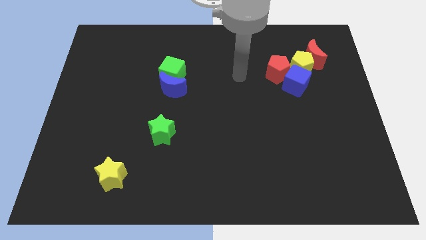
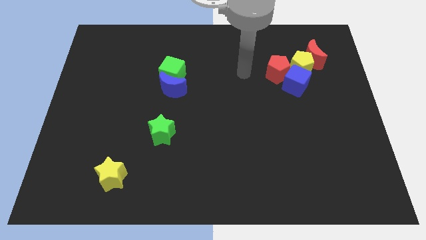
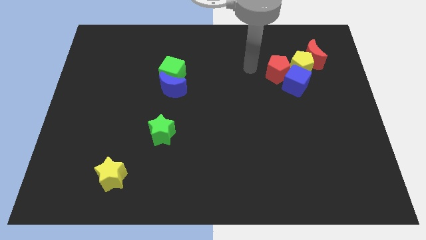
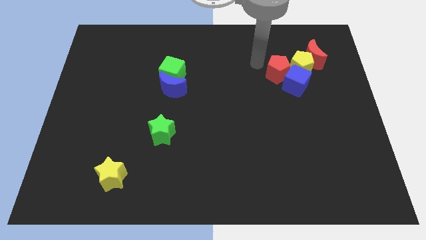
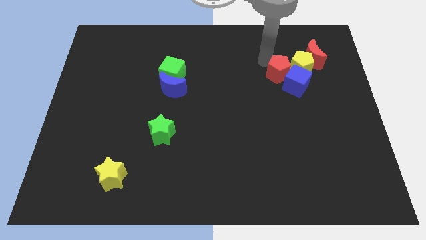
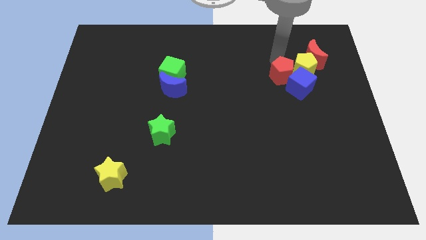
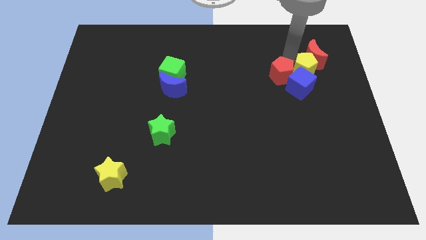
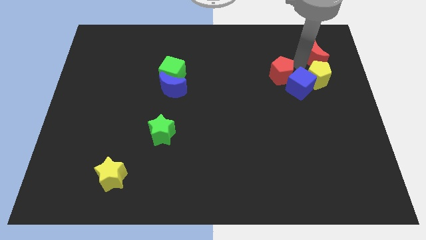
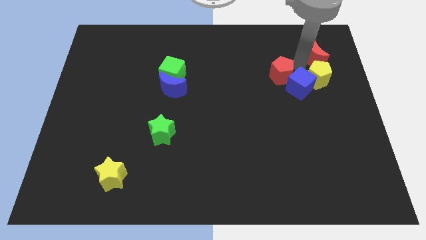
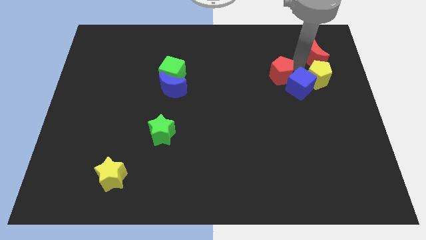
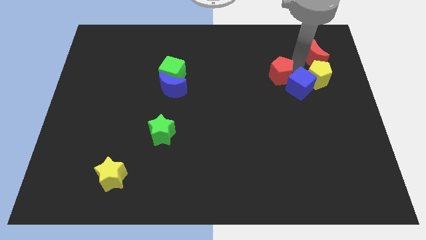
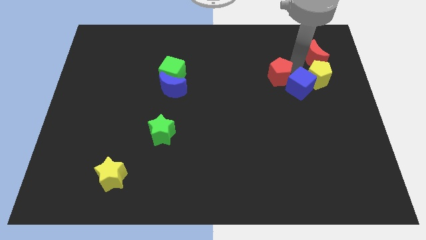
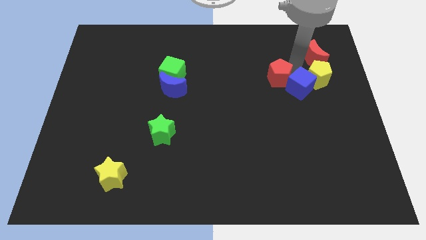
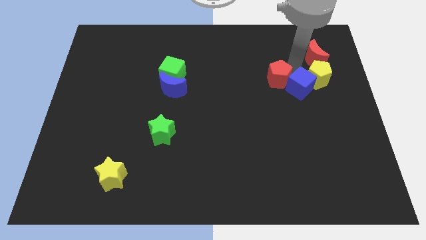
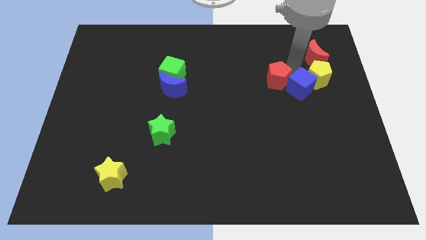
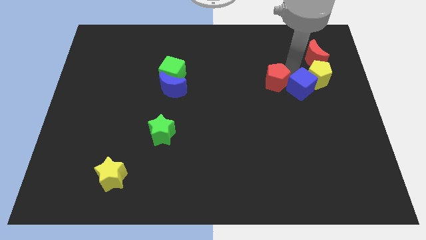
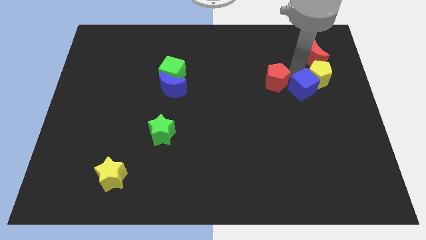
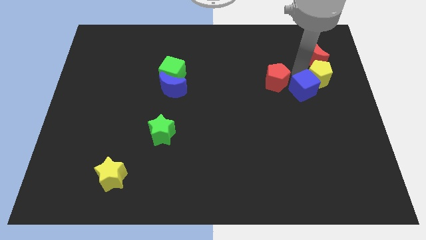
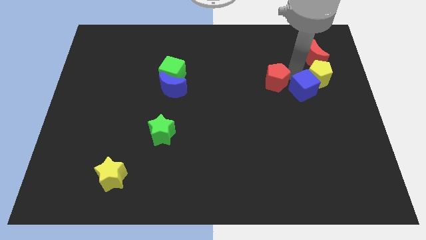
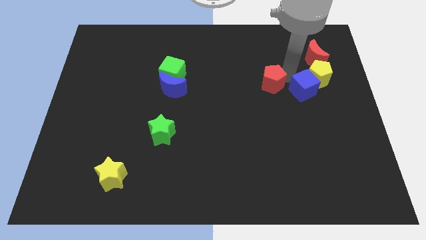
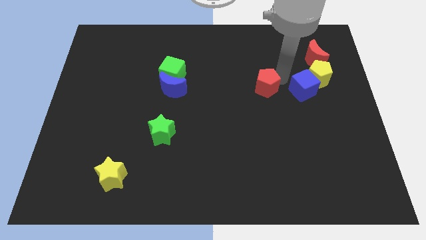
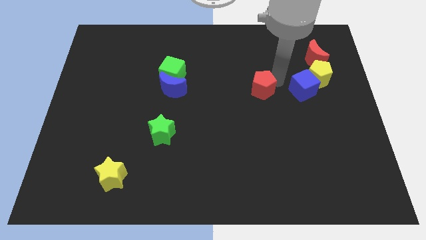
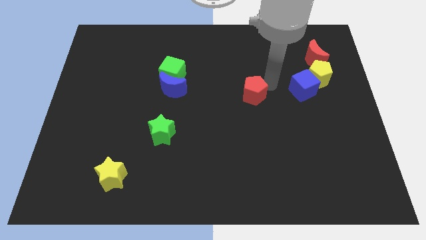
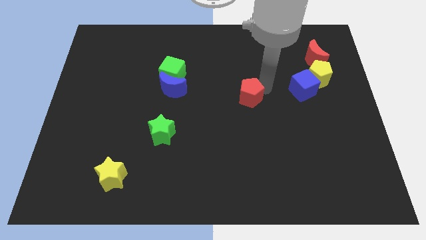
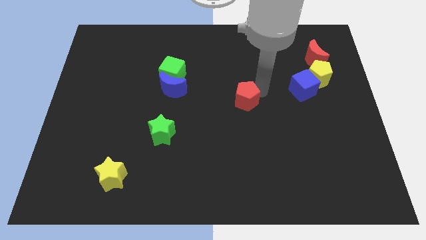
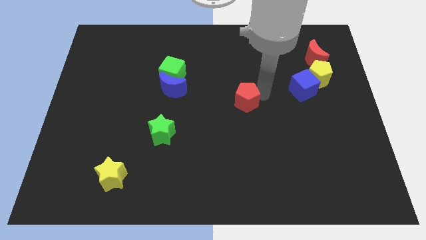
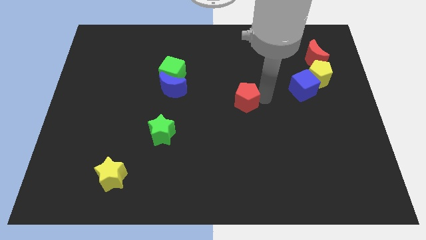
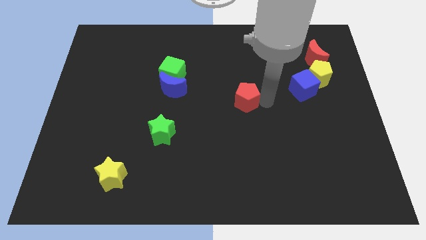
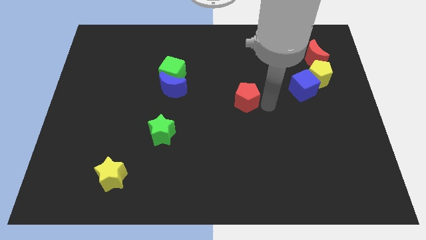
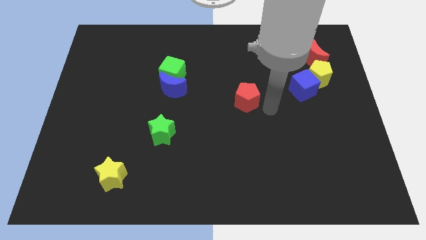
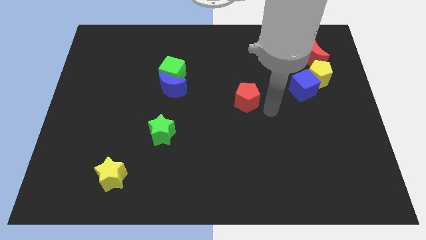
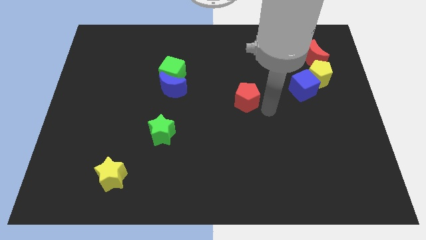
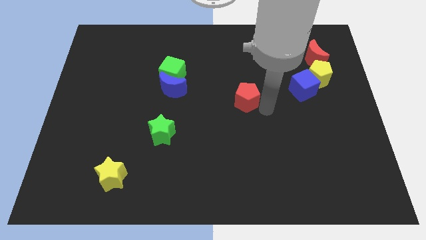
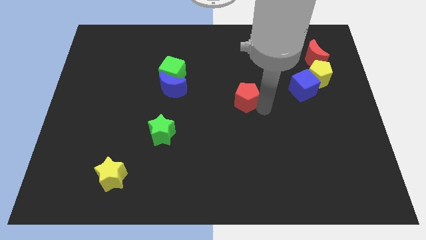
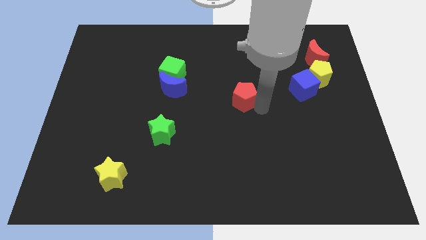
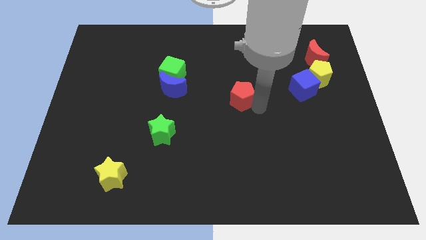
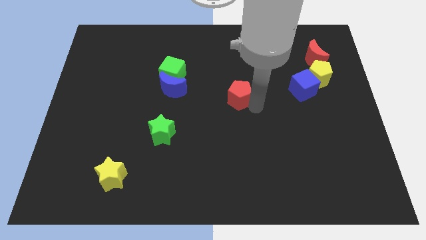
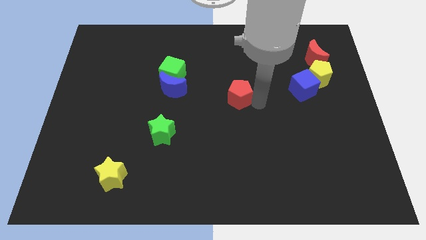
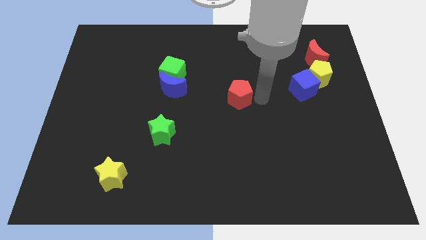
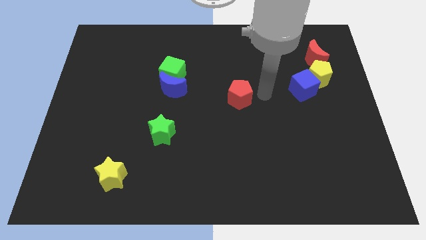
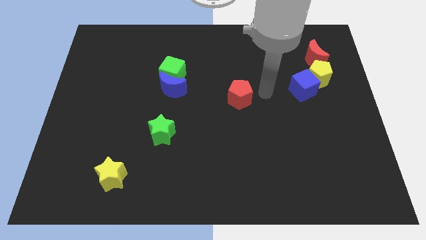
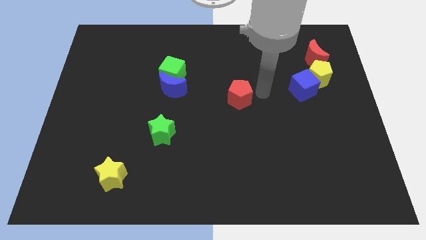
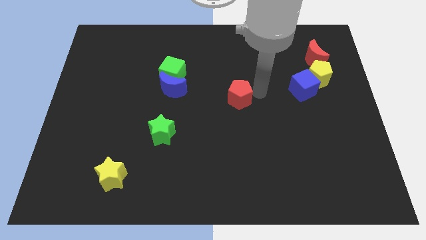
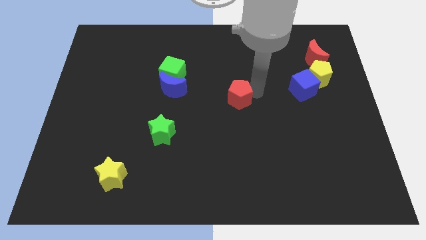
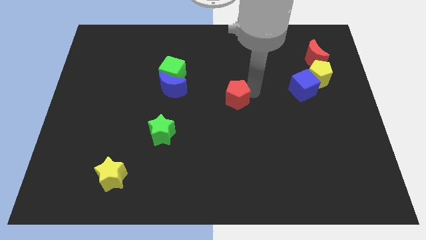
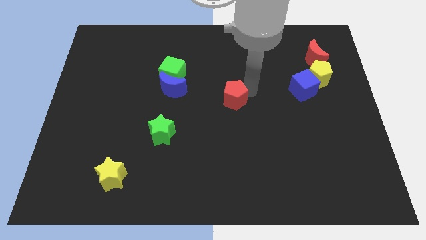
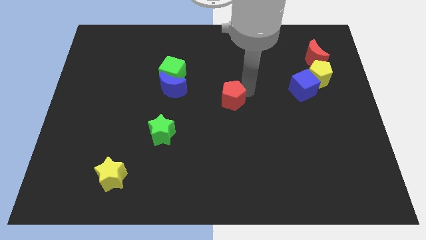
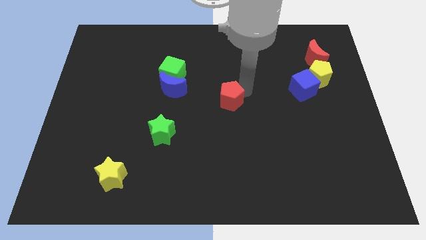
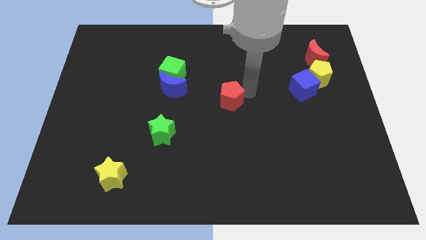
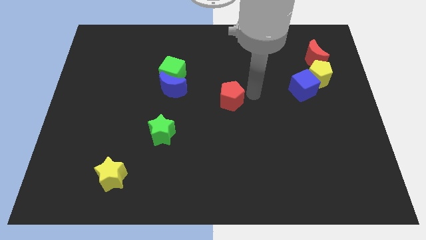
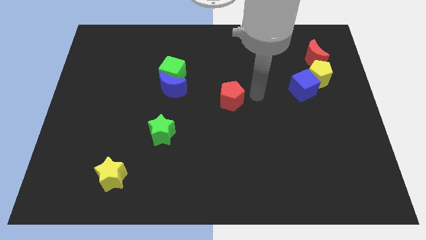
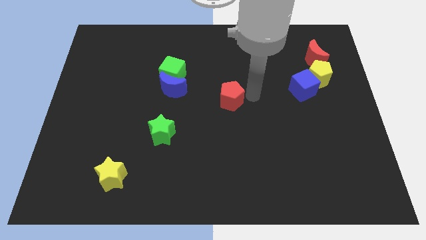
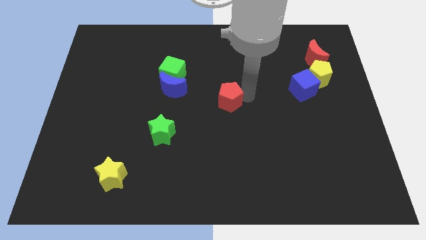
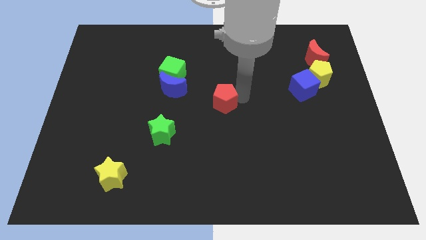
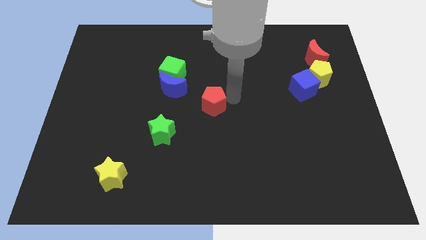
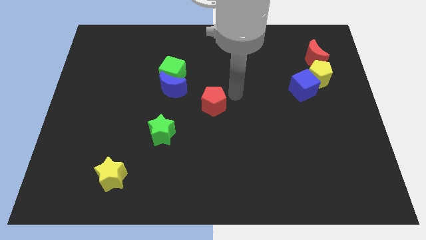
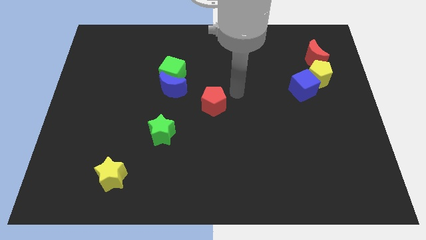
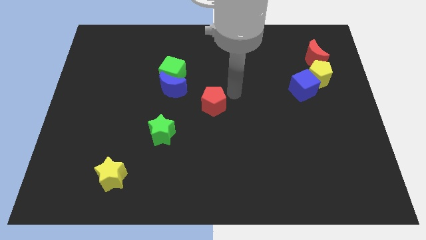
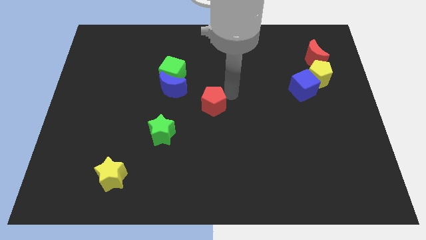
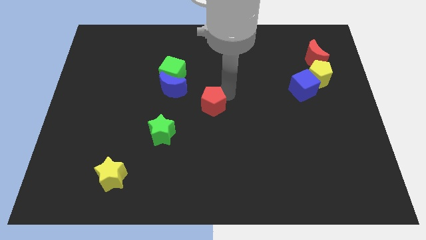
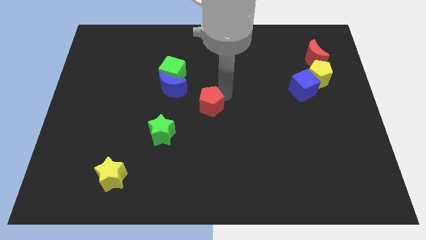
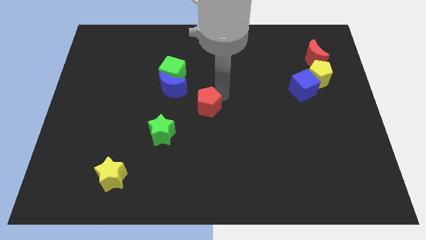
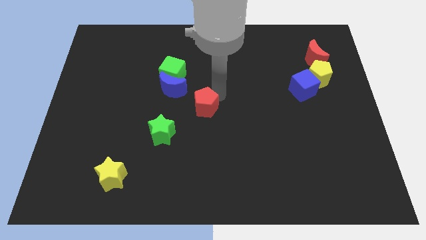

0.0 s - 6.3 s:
move the red pentagon diagonally up and to the right of the green star

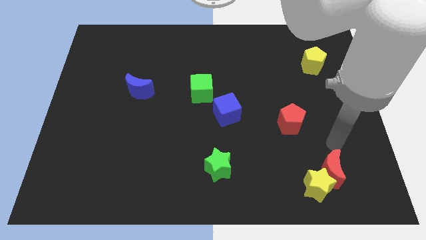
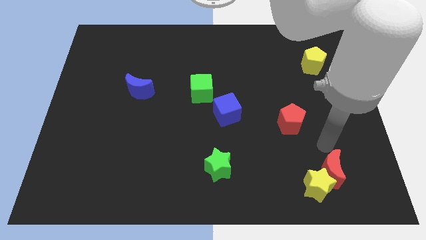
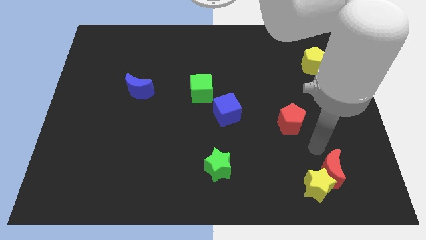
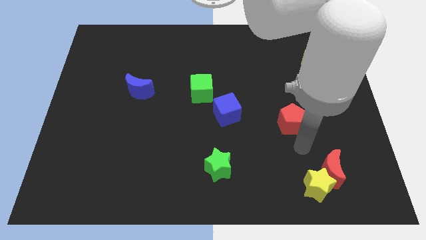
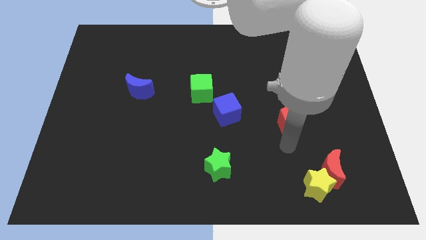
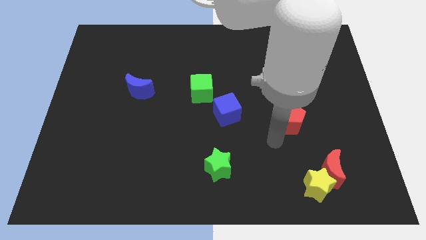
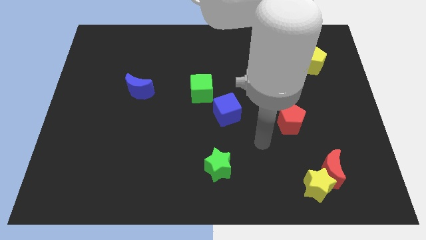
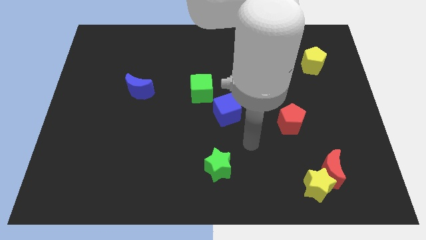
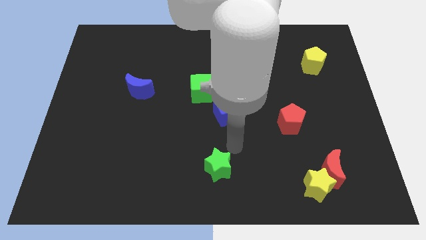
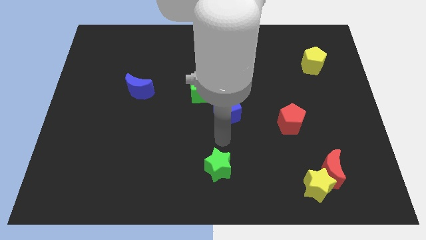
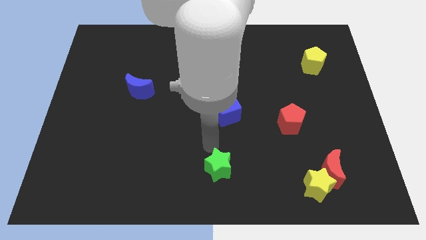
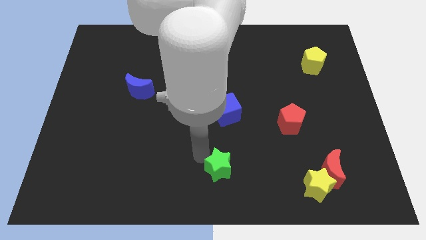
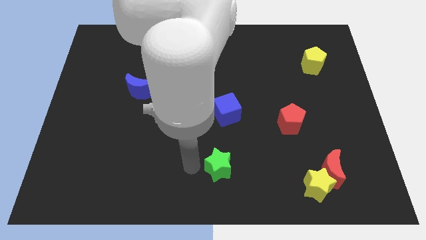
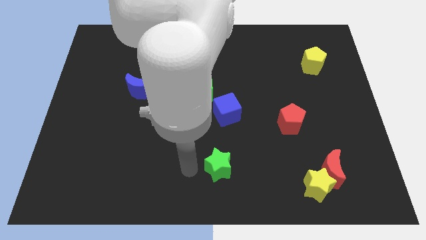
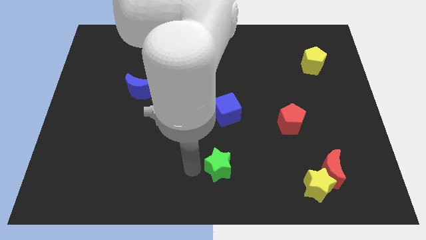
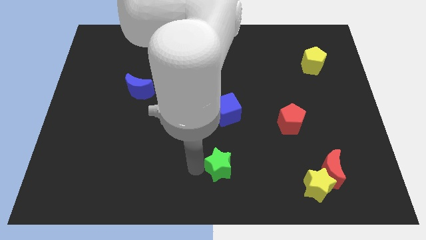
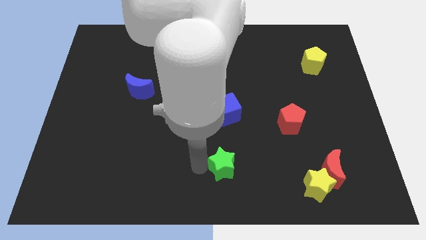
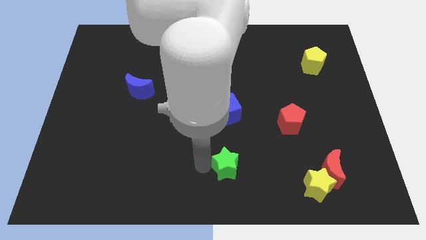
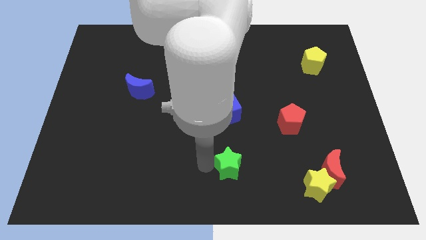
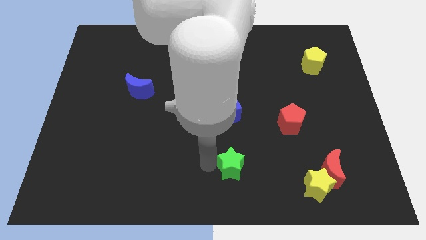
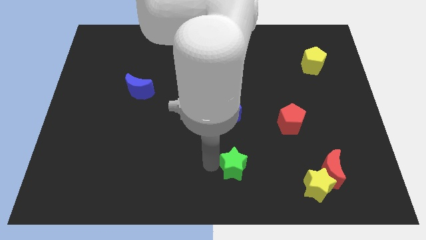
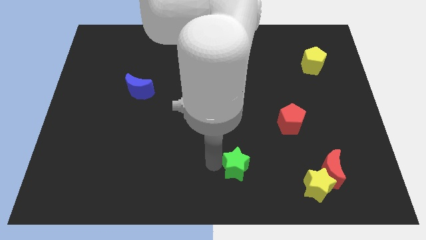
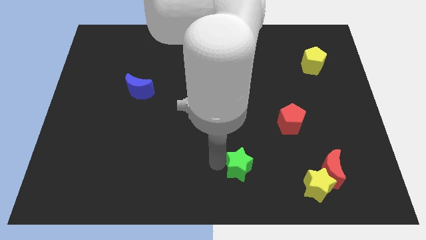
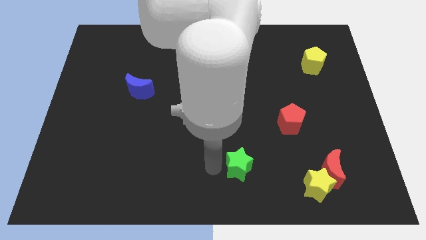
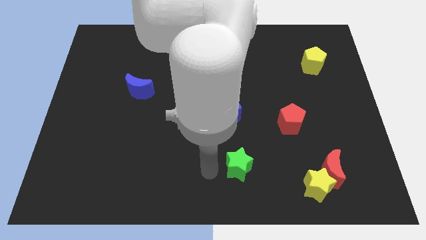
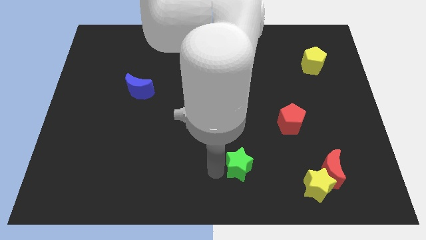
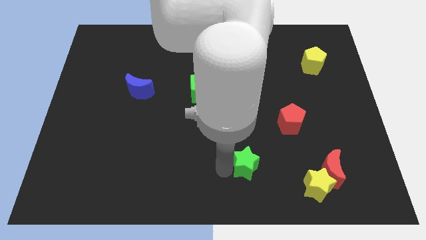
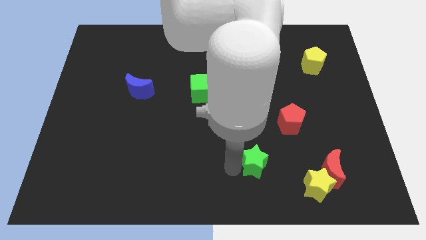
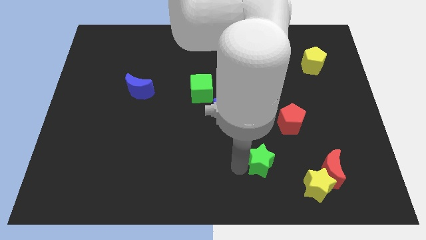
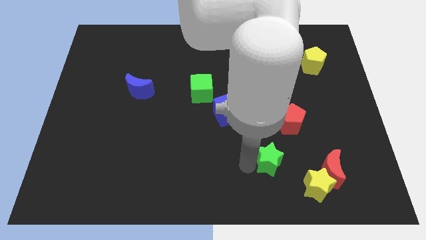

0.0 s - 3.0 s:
slide the green star to the top left of the yellow star
